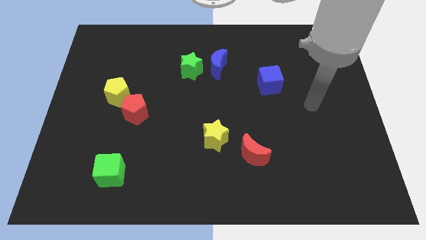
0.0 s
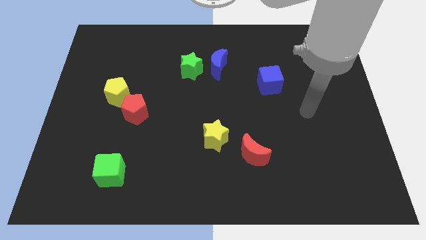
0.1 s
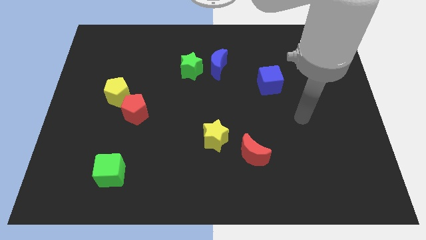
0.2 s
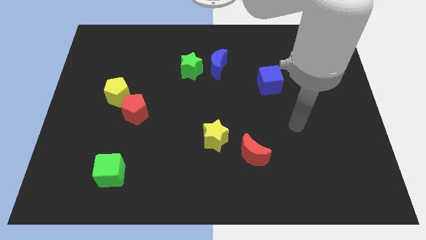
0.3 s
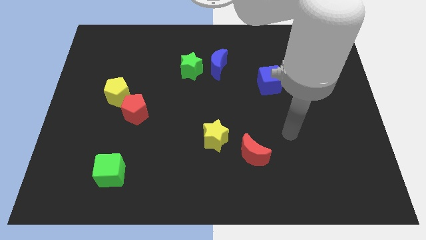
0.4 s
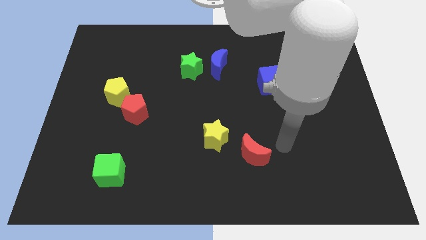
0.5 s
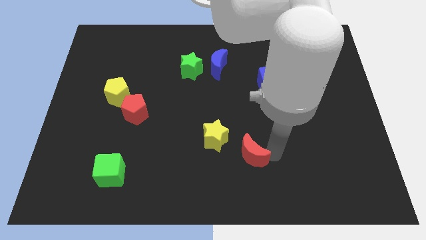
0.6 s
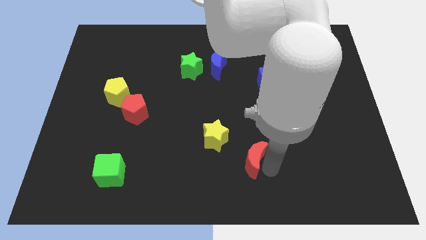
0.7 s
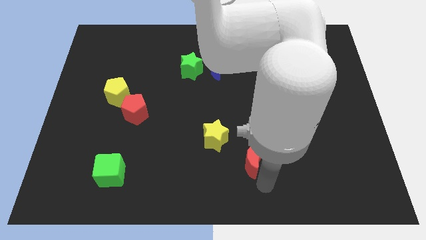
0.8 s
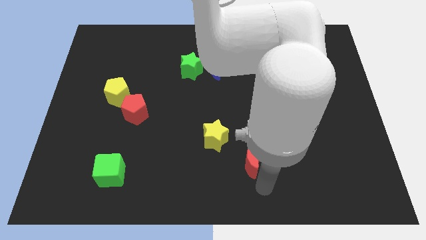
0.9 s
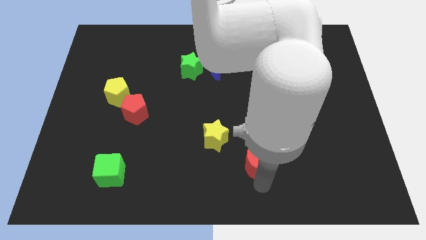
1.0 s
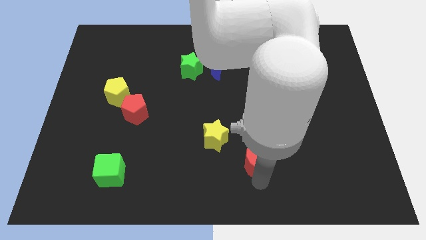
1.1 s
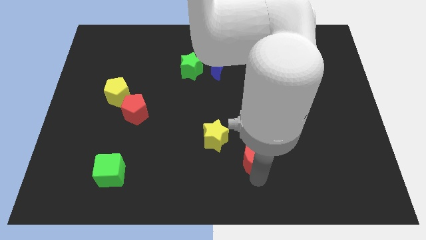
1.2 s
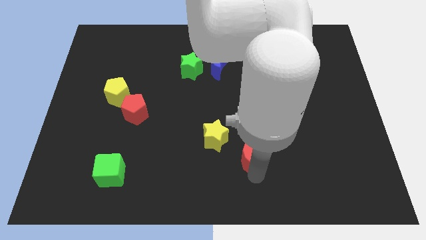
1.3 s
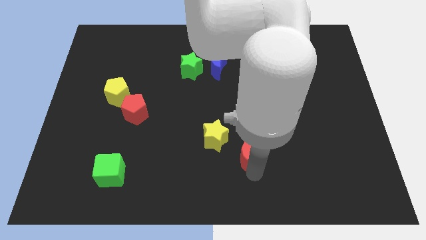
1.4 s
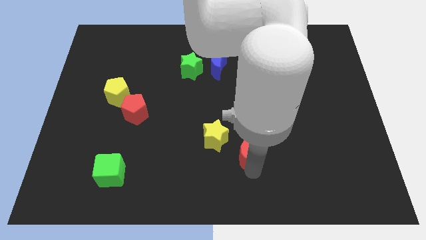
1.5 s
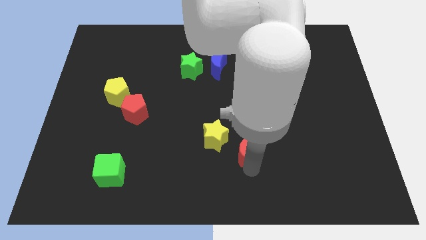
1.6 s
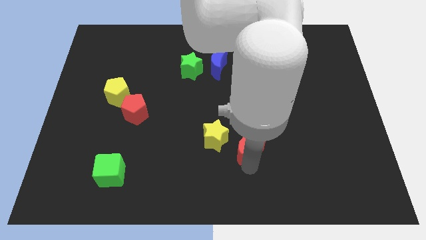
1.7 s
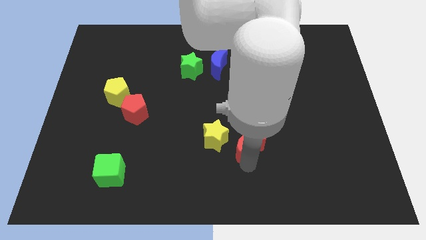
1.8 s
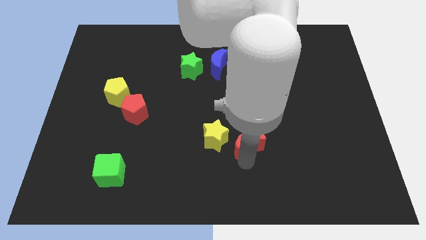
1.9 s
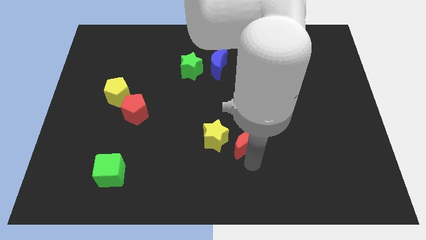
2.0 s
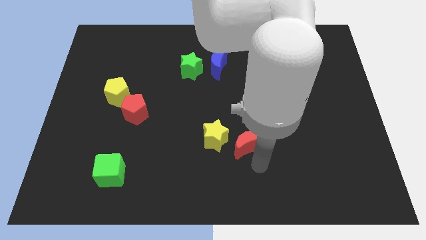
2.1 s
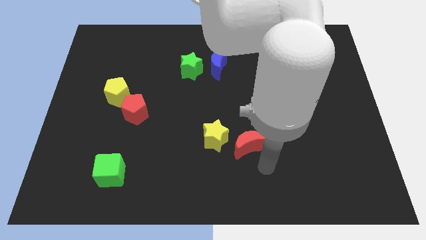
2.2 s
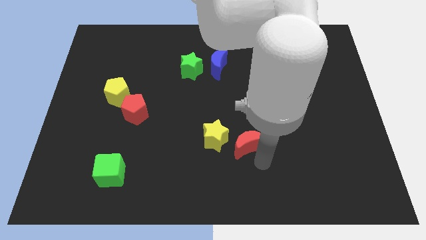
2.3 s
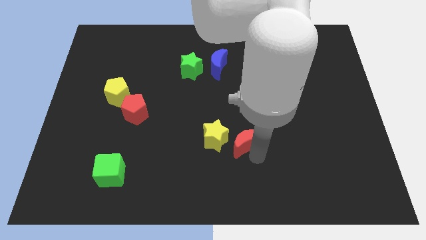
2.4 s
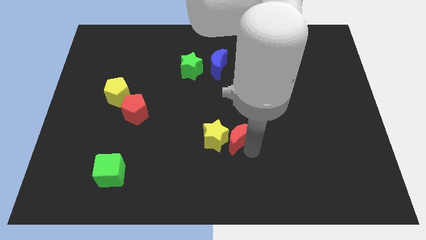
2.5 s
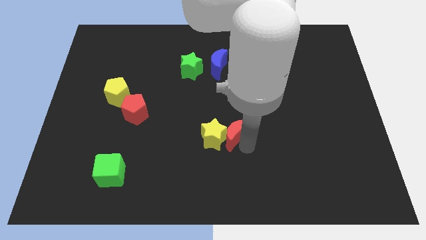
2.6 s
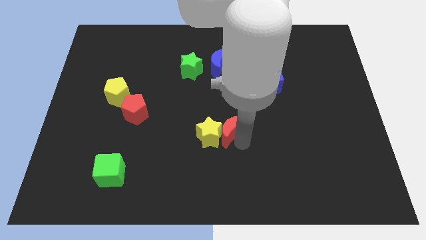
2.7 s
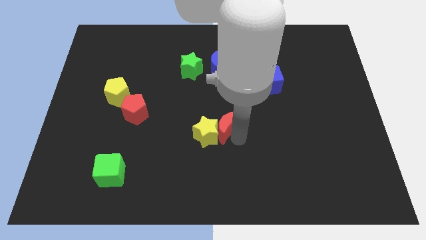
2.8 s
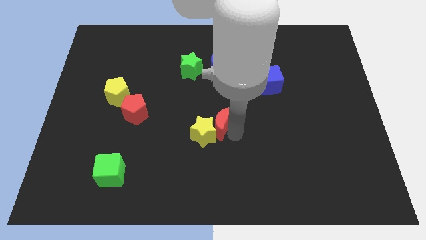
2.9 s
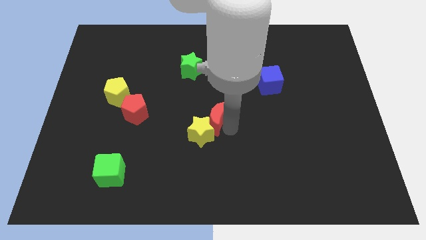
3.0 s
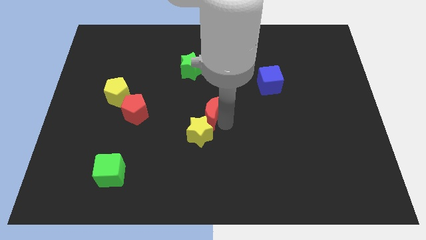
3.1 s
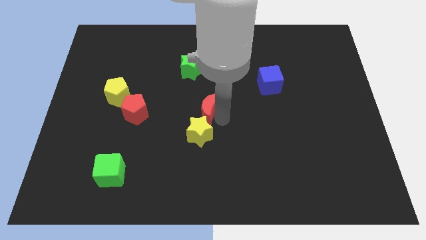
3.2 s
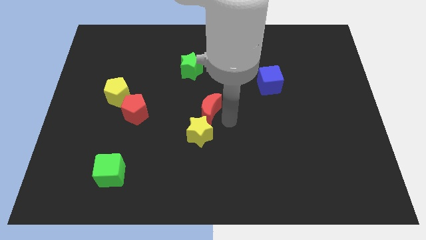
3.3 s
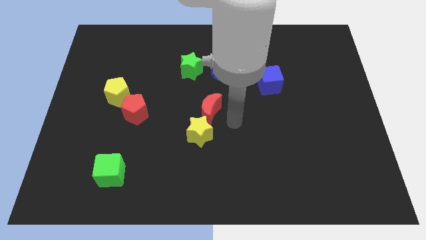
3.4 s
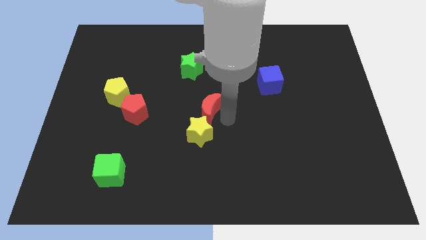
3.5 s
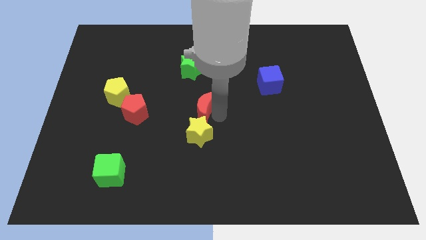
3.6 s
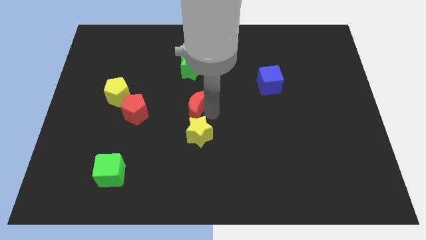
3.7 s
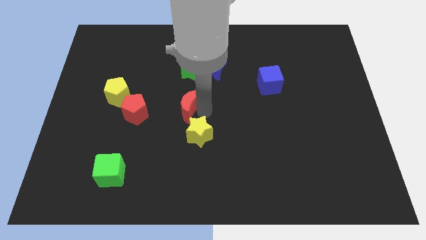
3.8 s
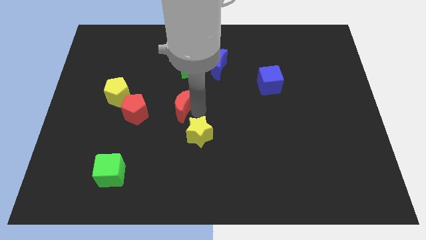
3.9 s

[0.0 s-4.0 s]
slide the red moon upwards and to the left

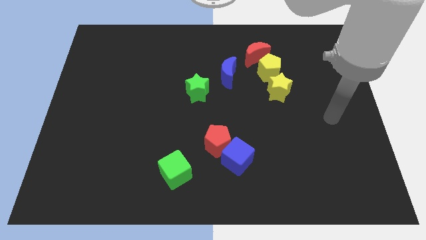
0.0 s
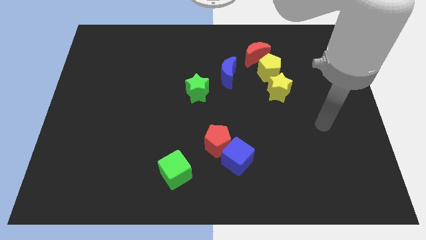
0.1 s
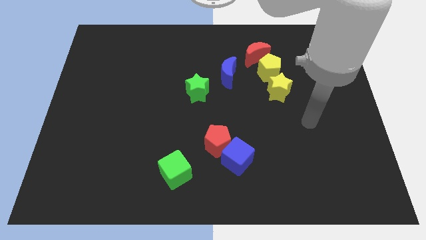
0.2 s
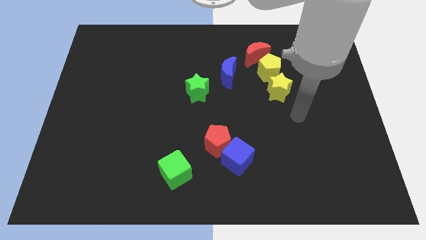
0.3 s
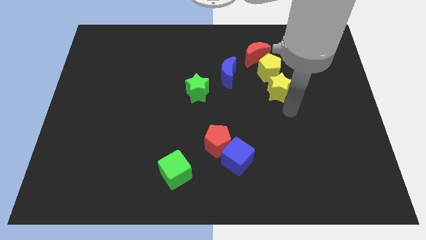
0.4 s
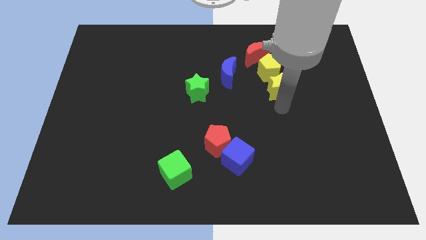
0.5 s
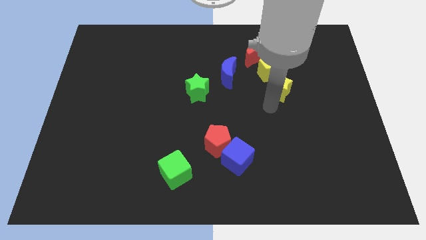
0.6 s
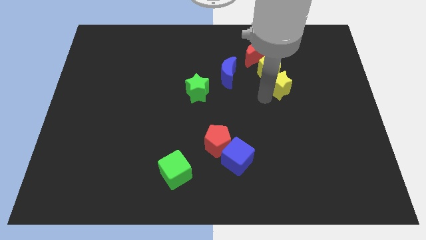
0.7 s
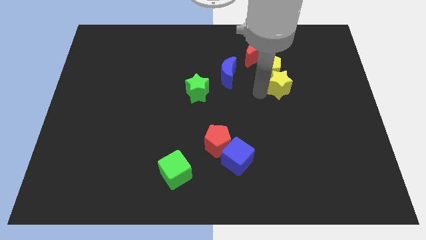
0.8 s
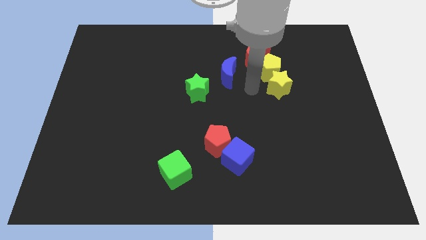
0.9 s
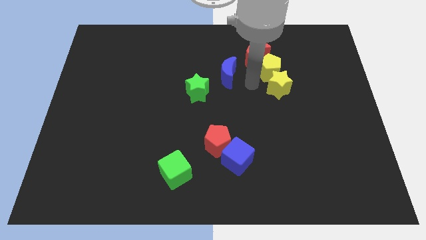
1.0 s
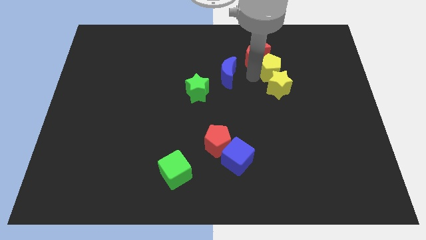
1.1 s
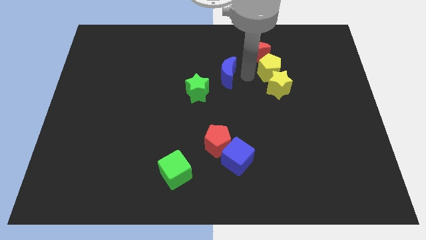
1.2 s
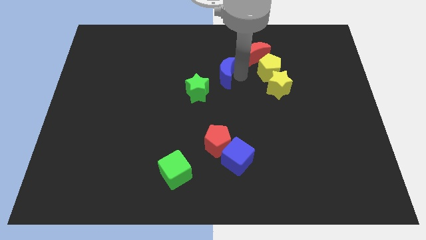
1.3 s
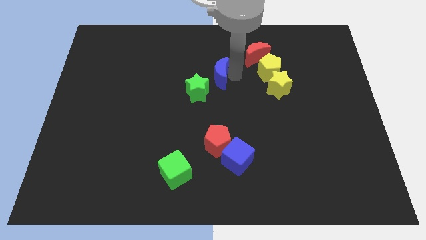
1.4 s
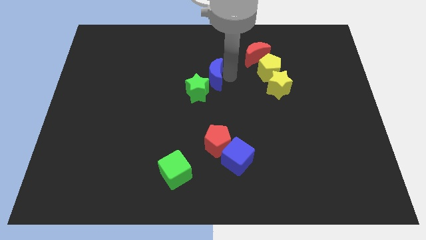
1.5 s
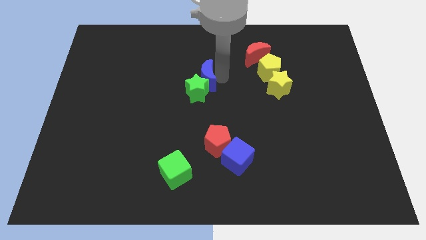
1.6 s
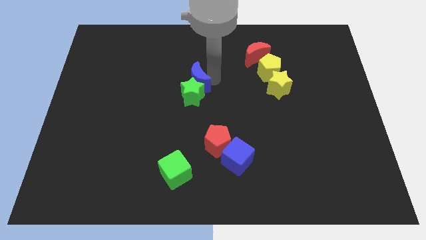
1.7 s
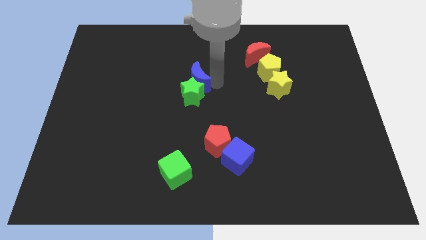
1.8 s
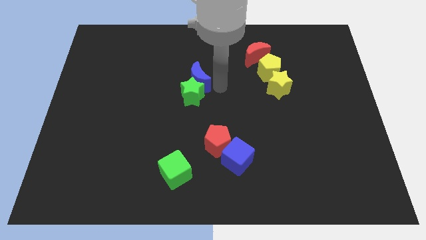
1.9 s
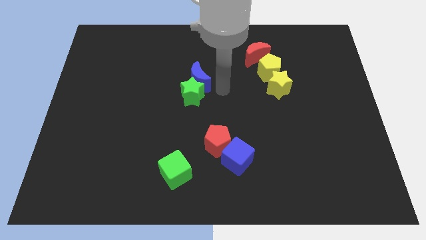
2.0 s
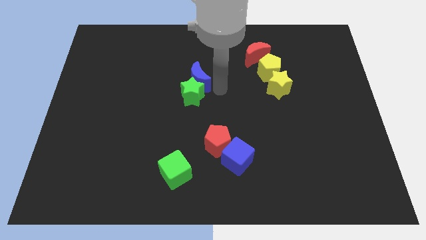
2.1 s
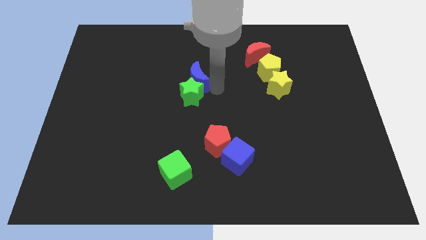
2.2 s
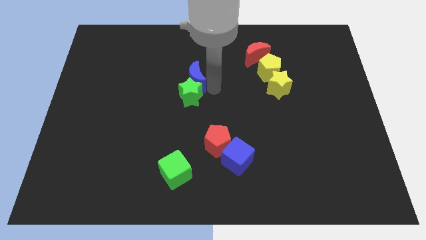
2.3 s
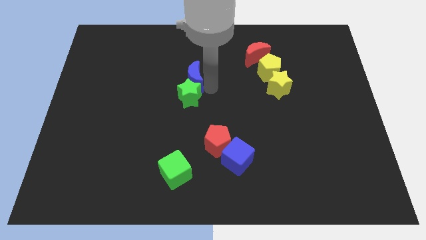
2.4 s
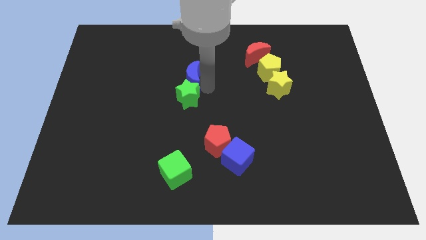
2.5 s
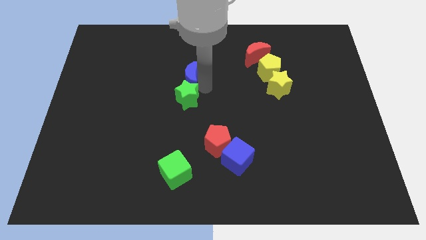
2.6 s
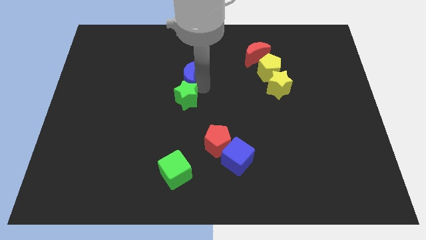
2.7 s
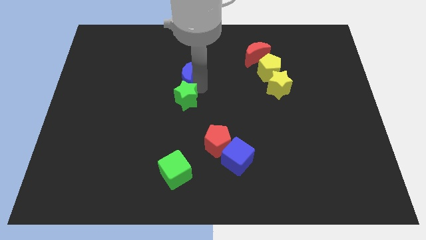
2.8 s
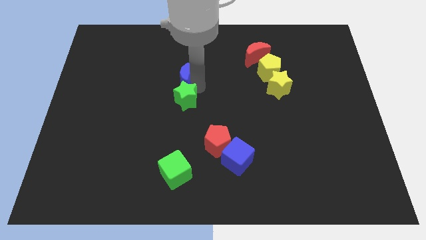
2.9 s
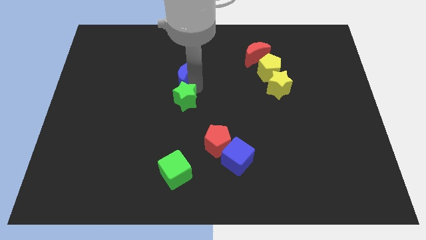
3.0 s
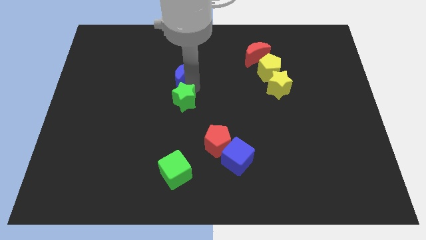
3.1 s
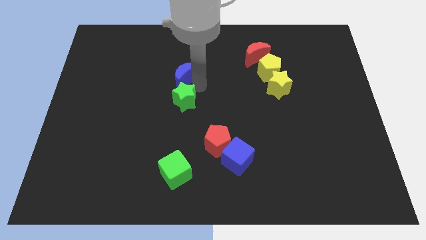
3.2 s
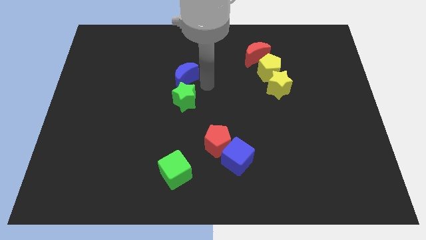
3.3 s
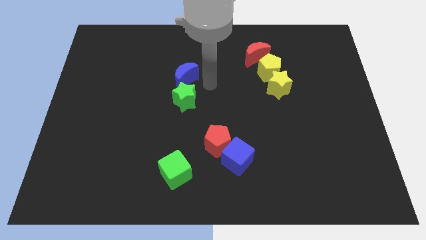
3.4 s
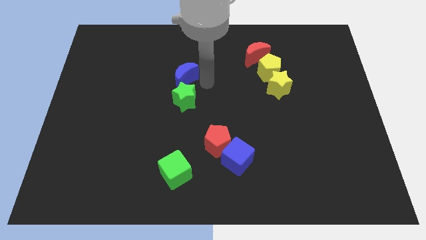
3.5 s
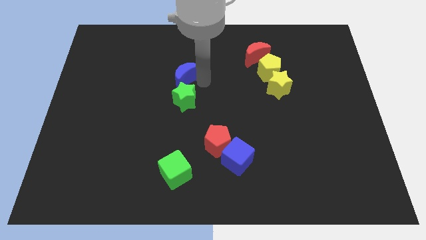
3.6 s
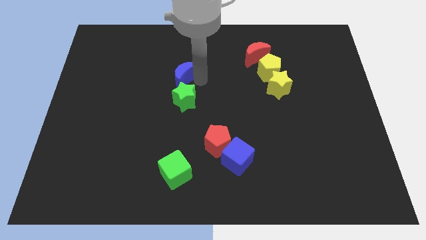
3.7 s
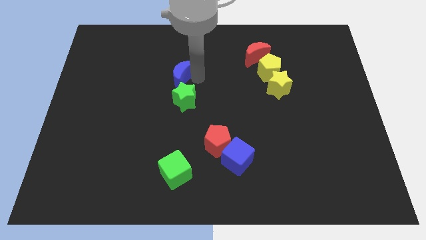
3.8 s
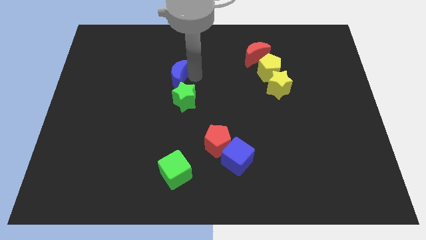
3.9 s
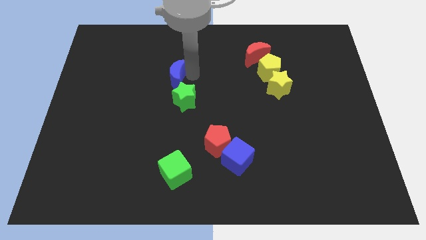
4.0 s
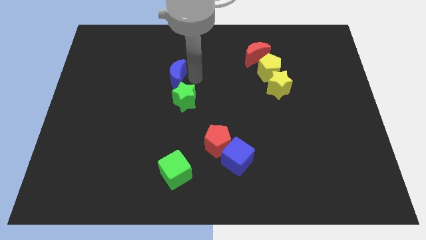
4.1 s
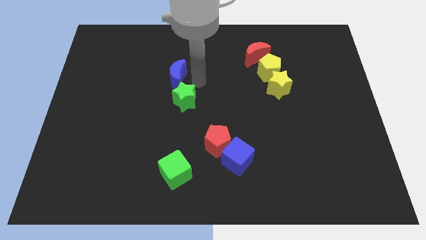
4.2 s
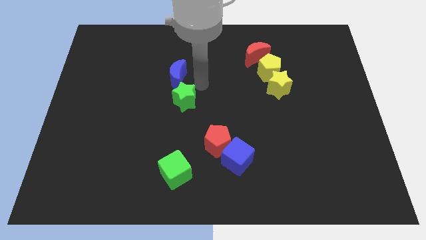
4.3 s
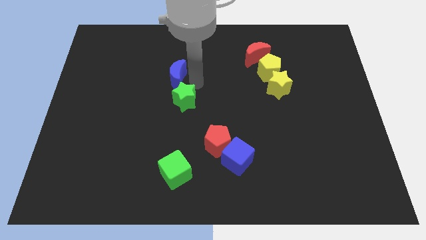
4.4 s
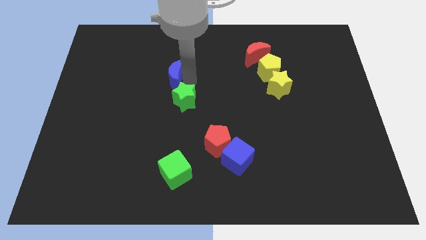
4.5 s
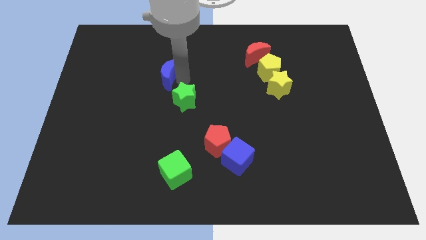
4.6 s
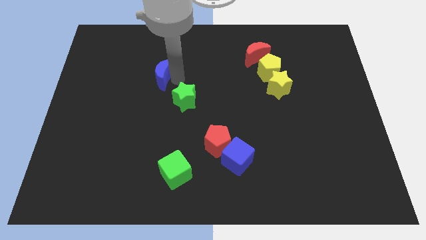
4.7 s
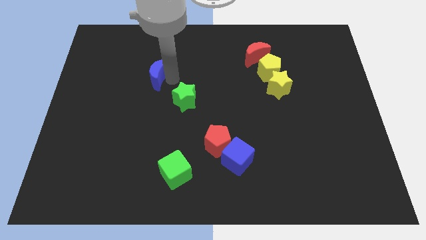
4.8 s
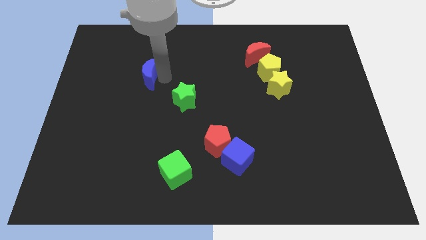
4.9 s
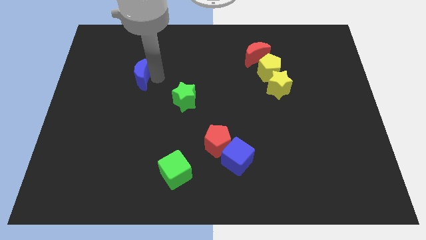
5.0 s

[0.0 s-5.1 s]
move the blue moon to the left
